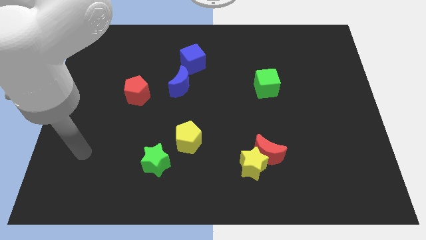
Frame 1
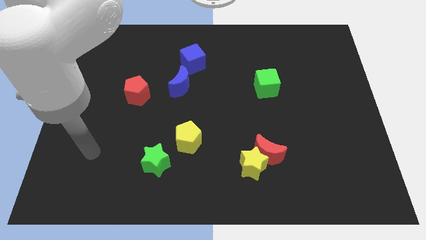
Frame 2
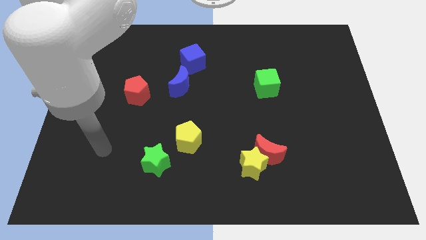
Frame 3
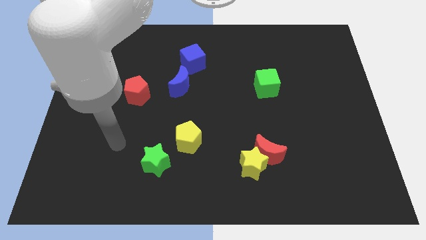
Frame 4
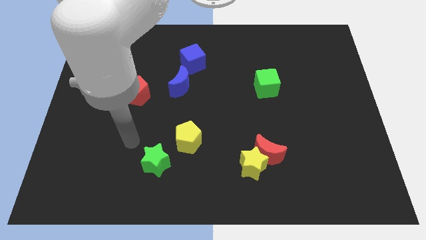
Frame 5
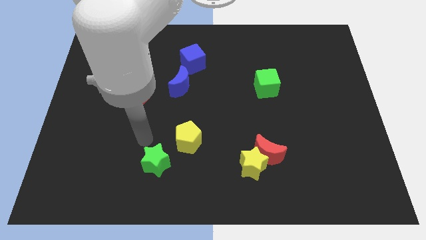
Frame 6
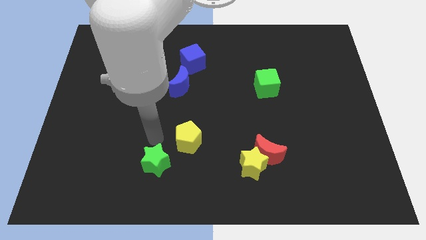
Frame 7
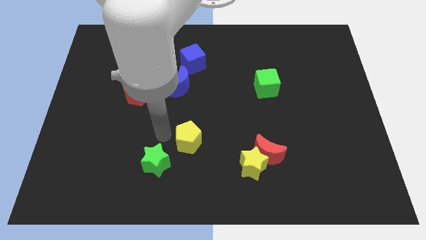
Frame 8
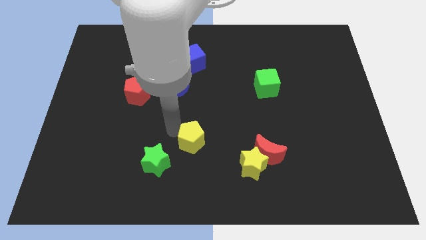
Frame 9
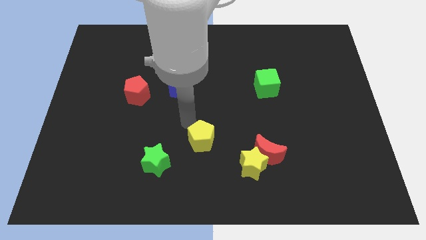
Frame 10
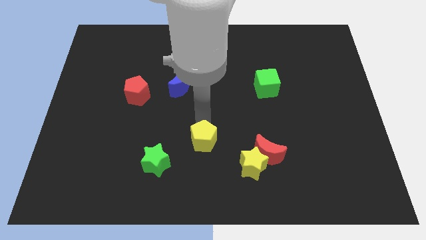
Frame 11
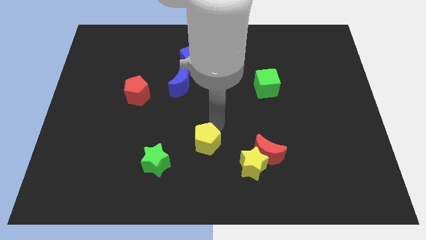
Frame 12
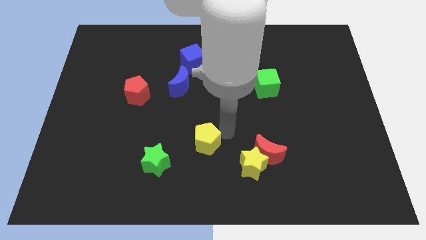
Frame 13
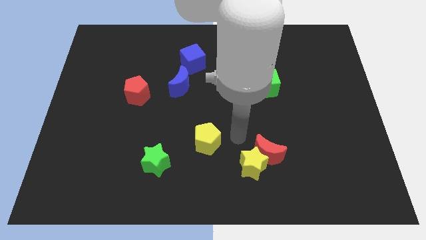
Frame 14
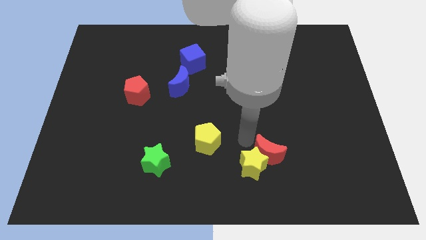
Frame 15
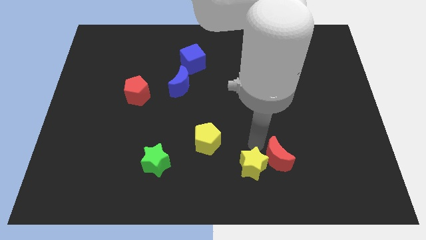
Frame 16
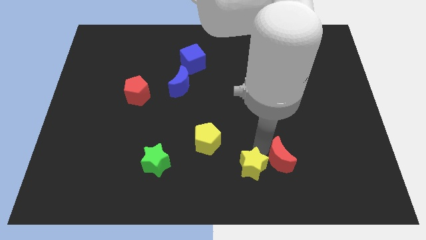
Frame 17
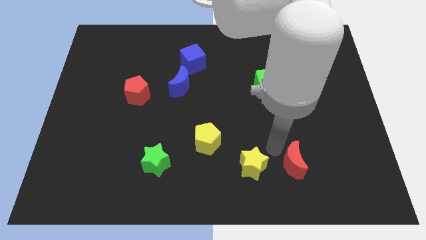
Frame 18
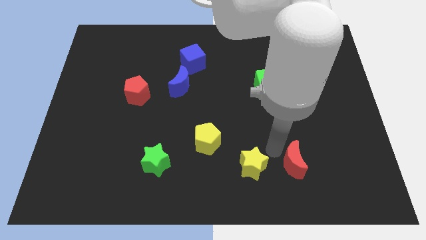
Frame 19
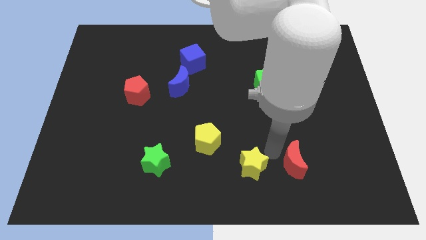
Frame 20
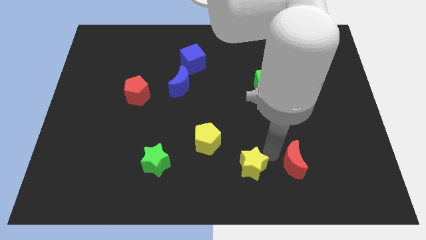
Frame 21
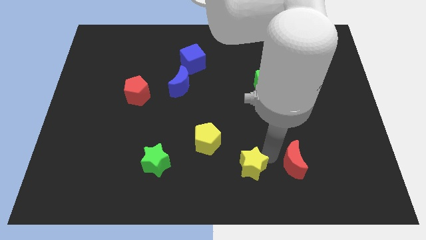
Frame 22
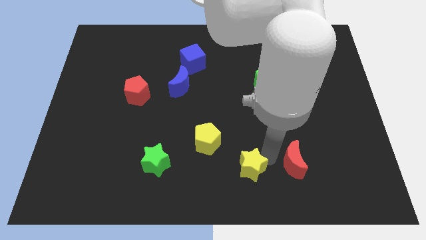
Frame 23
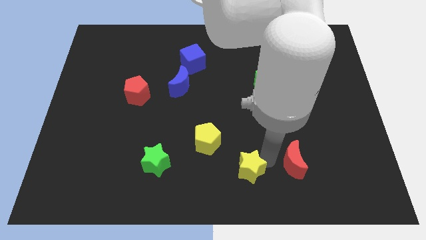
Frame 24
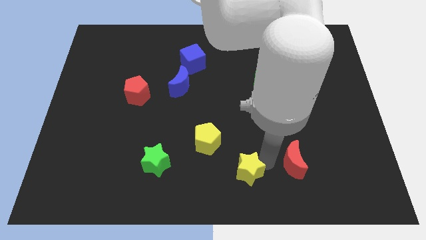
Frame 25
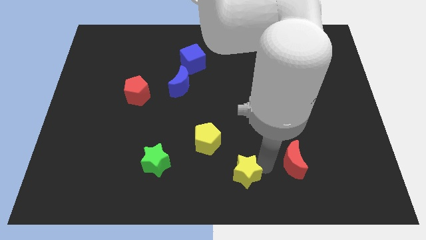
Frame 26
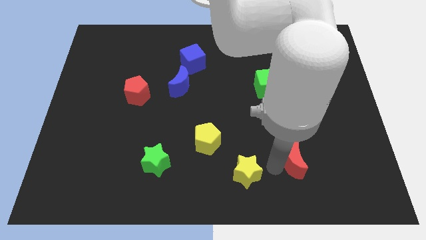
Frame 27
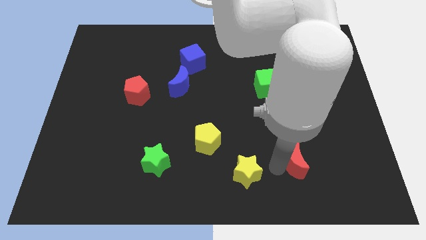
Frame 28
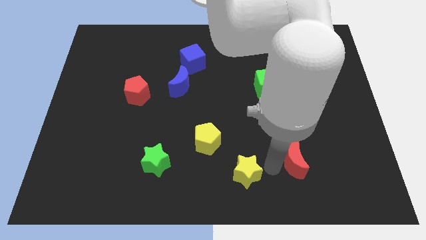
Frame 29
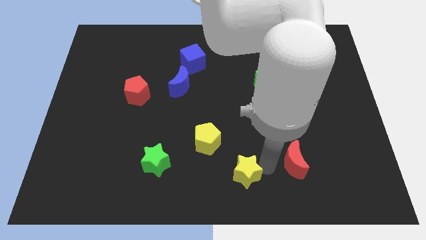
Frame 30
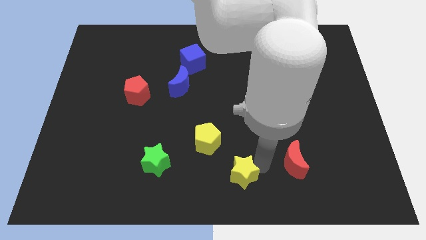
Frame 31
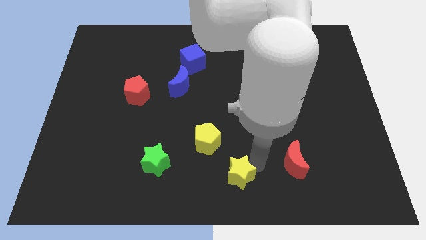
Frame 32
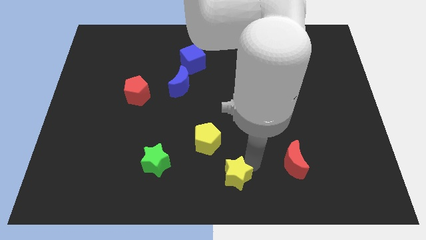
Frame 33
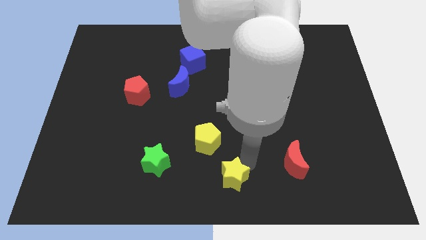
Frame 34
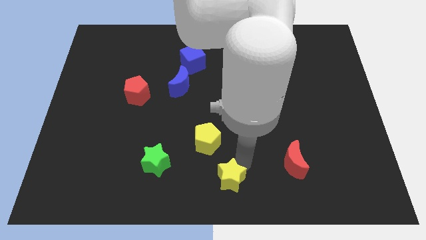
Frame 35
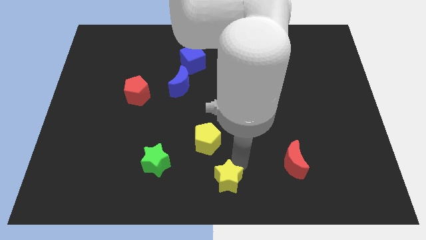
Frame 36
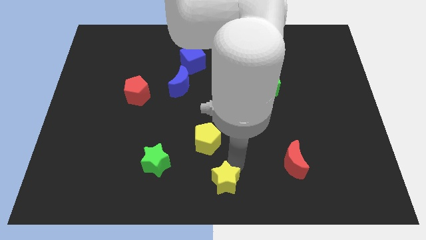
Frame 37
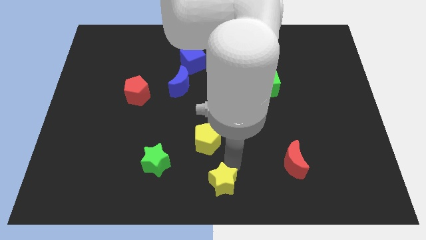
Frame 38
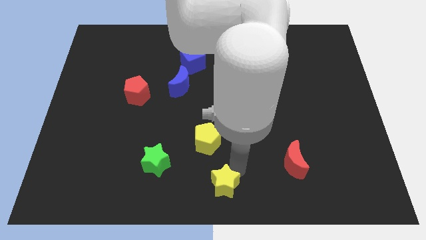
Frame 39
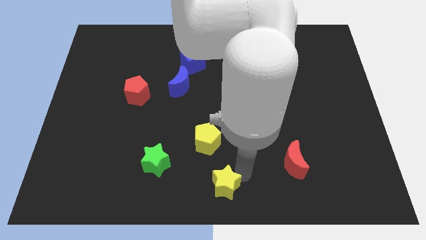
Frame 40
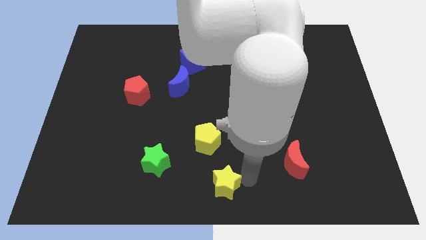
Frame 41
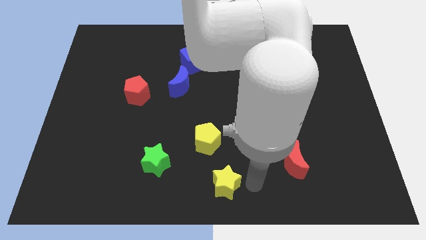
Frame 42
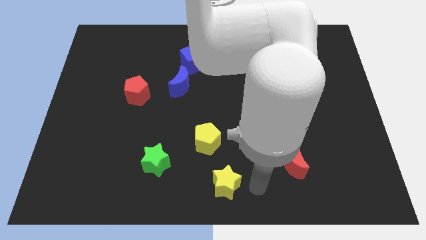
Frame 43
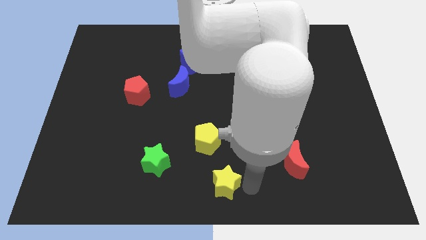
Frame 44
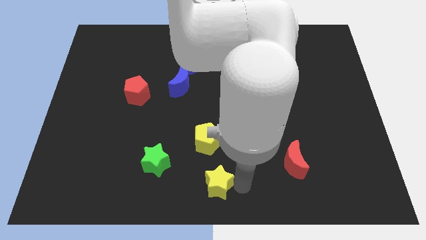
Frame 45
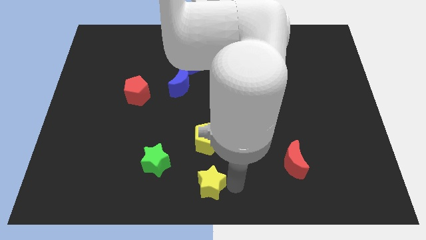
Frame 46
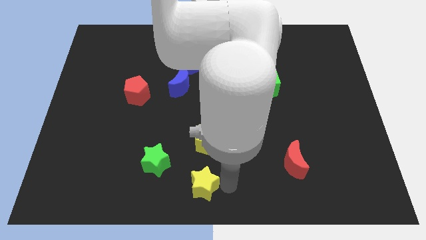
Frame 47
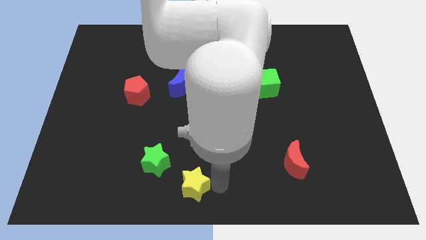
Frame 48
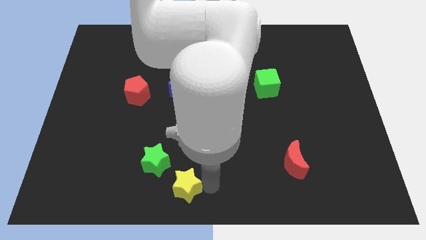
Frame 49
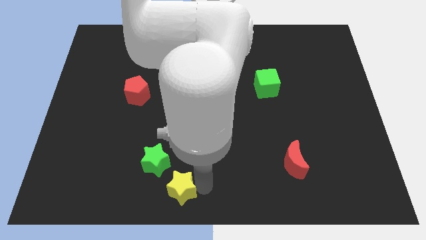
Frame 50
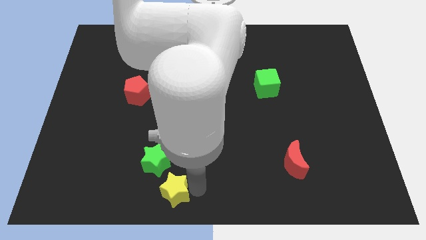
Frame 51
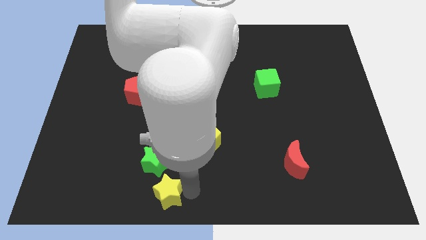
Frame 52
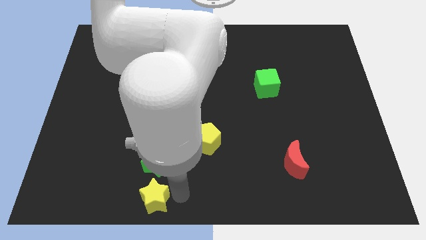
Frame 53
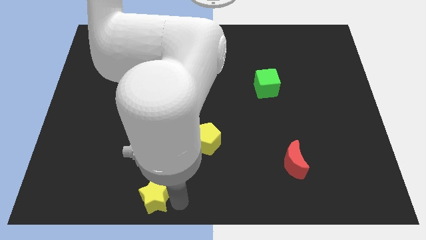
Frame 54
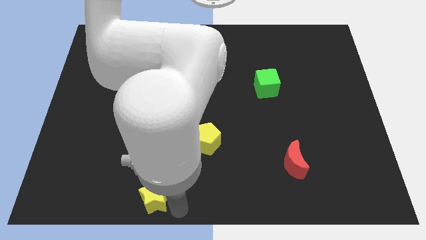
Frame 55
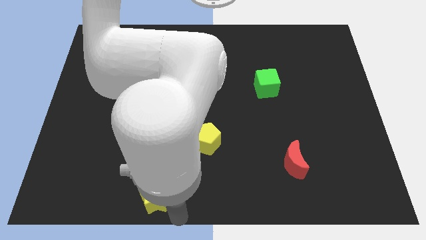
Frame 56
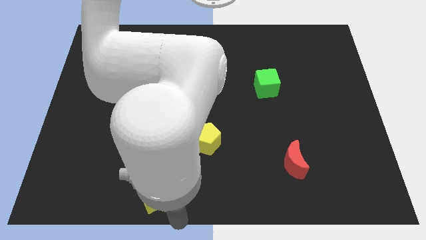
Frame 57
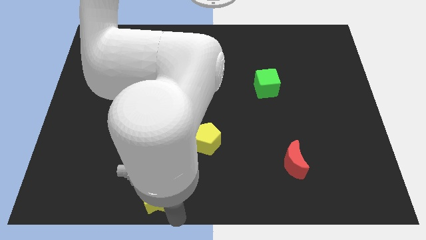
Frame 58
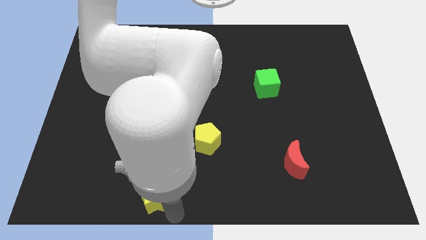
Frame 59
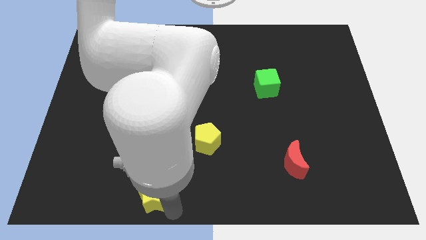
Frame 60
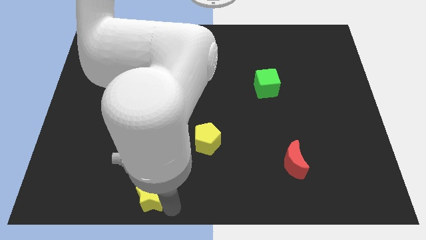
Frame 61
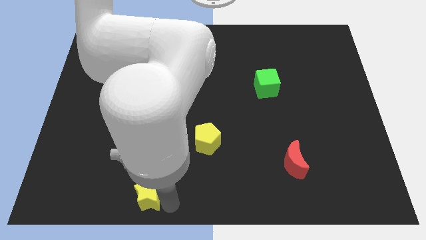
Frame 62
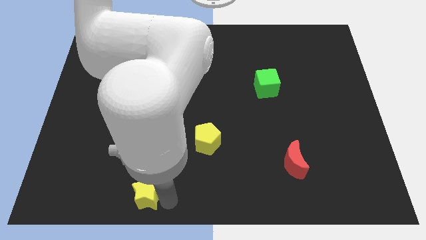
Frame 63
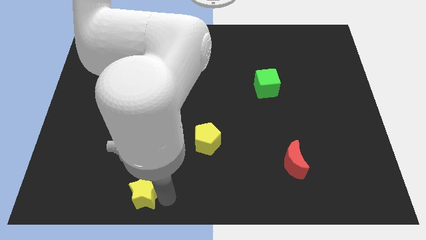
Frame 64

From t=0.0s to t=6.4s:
push the yellow star to the left

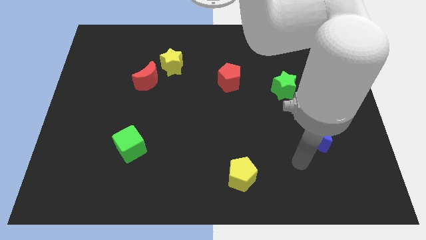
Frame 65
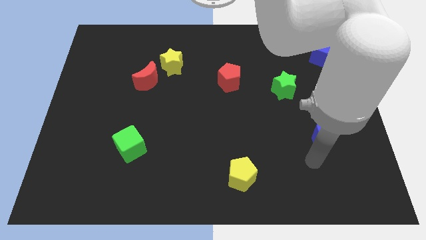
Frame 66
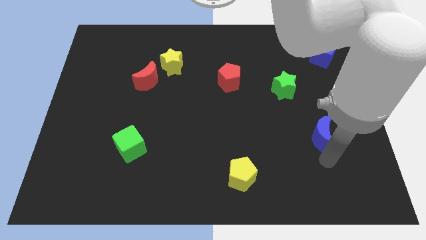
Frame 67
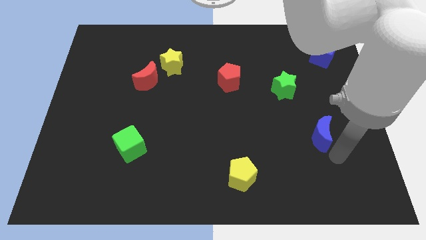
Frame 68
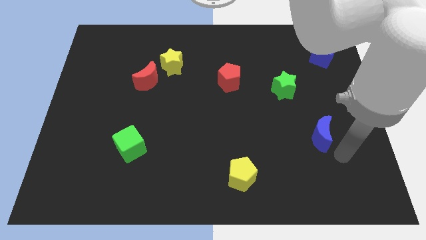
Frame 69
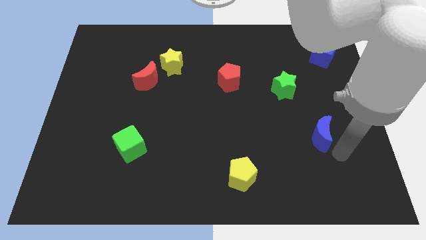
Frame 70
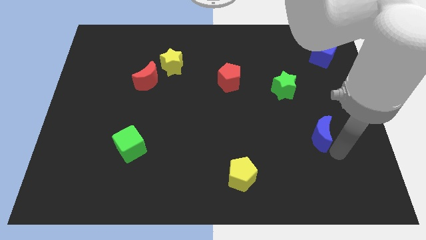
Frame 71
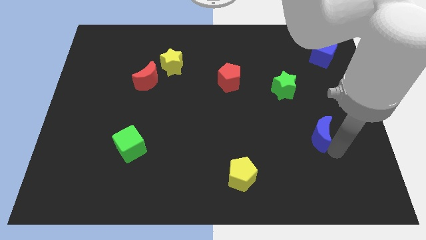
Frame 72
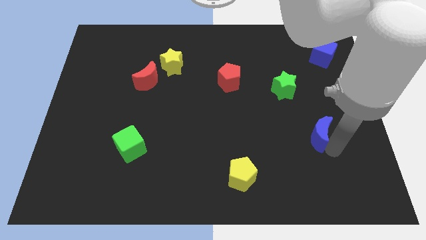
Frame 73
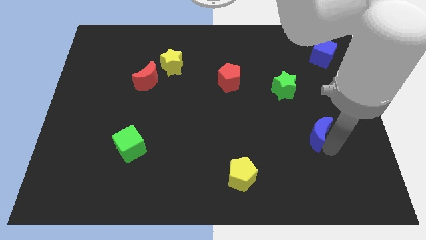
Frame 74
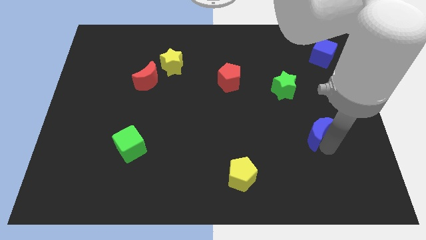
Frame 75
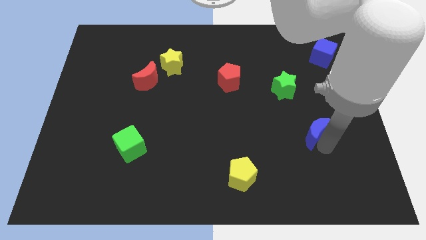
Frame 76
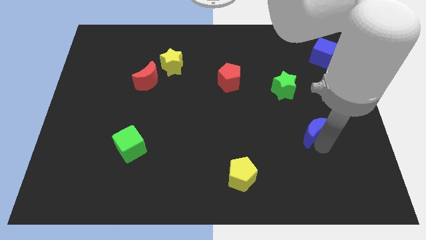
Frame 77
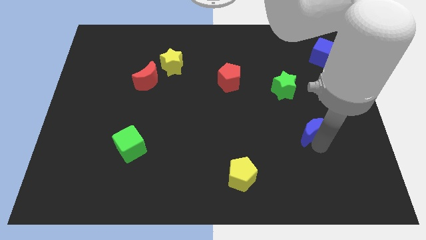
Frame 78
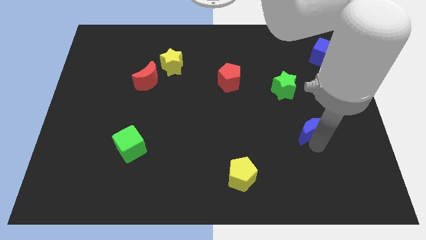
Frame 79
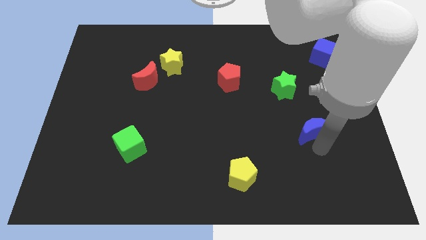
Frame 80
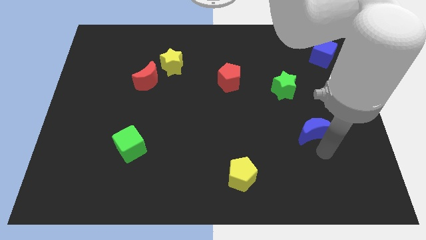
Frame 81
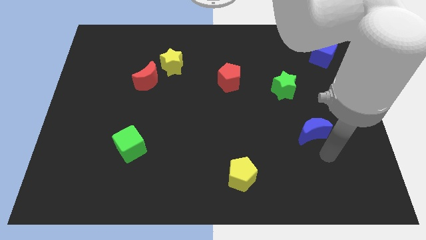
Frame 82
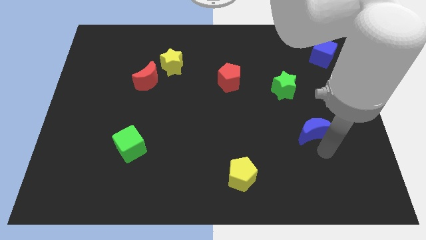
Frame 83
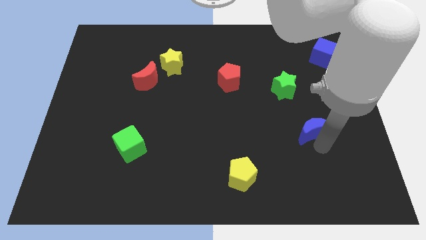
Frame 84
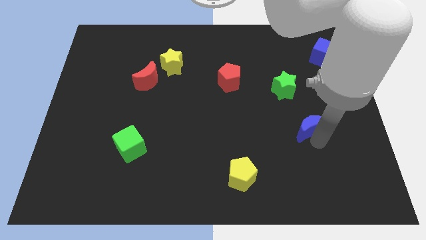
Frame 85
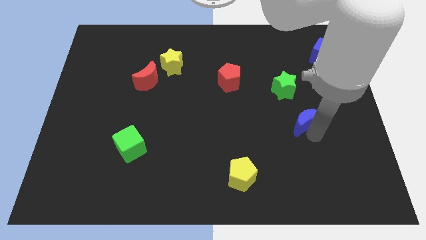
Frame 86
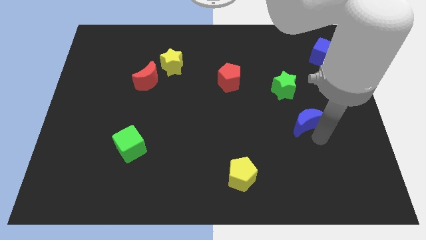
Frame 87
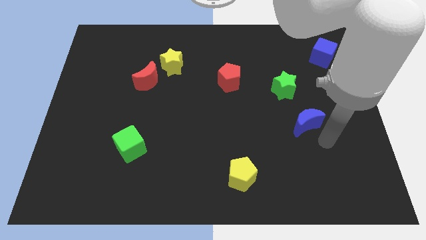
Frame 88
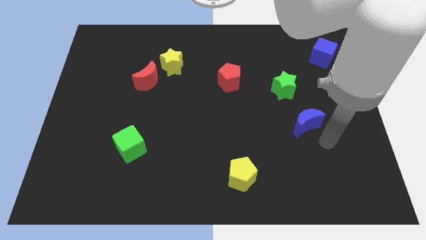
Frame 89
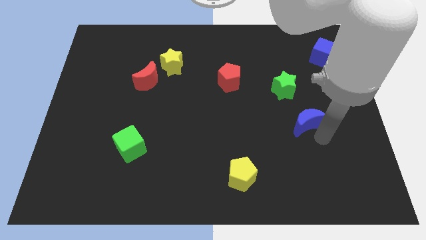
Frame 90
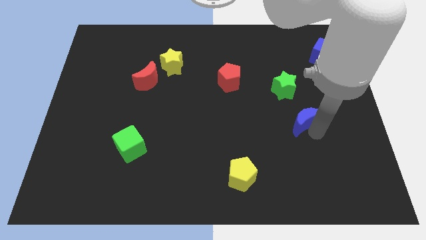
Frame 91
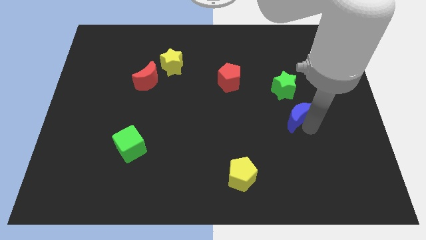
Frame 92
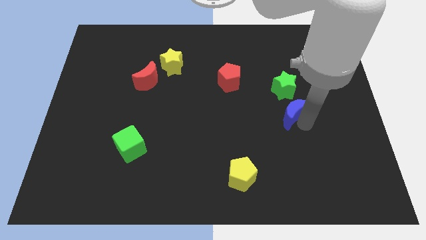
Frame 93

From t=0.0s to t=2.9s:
slightly move the blue moon up and to the left diagonally
